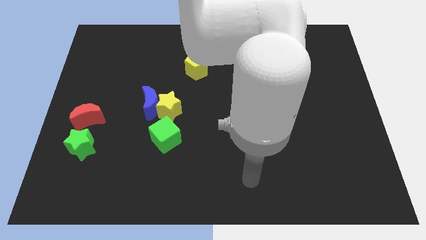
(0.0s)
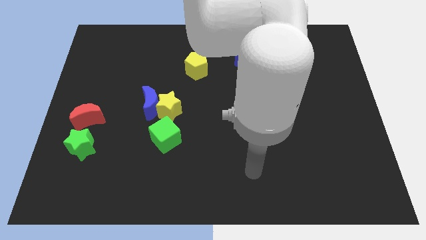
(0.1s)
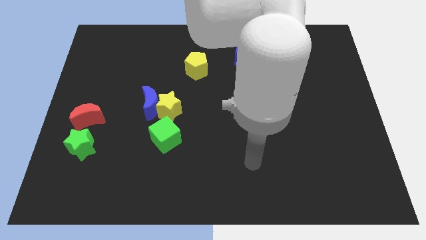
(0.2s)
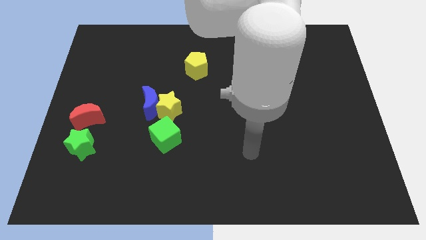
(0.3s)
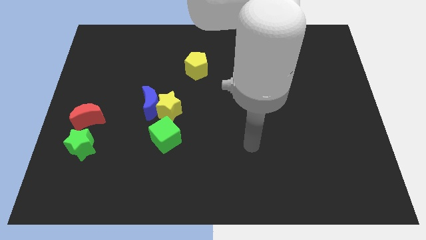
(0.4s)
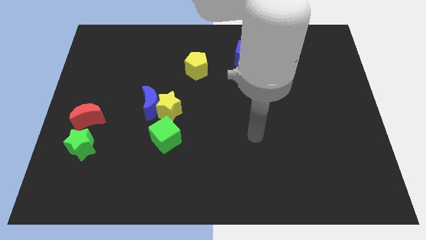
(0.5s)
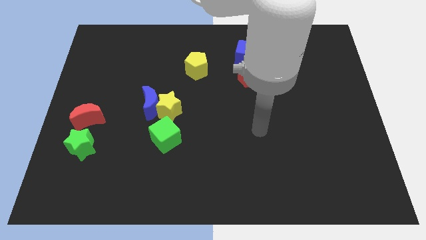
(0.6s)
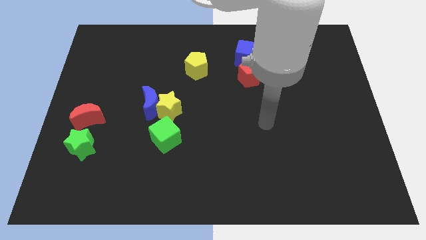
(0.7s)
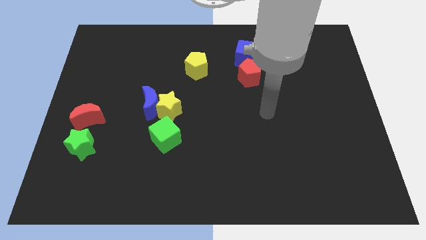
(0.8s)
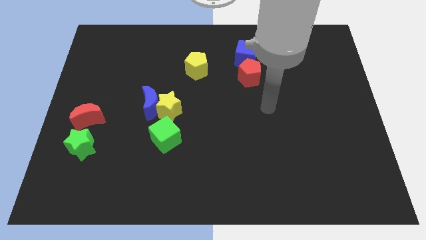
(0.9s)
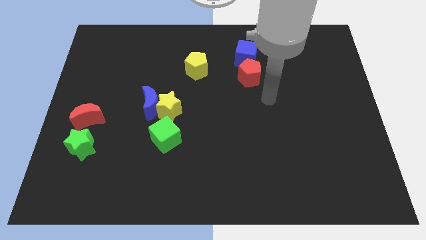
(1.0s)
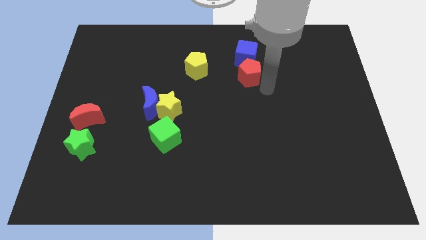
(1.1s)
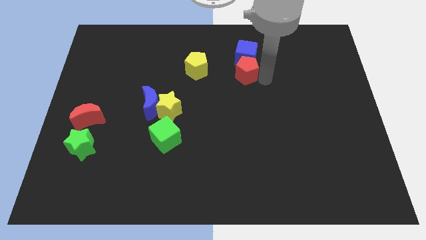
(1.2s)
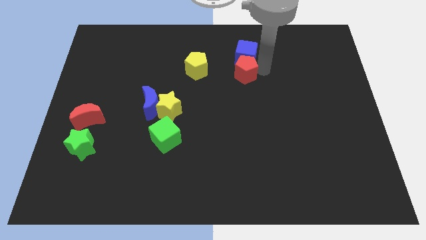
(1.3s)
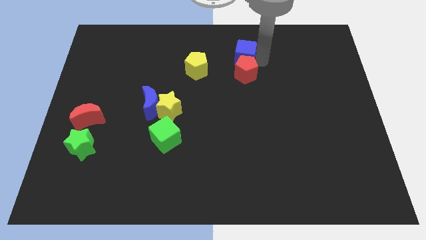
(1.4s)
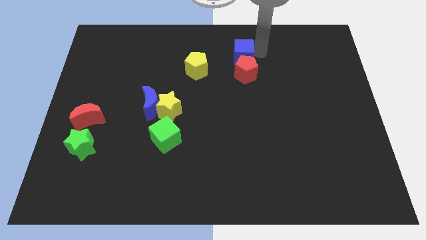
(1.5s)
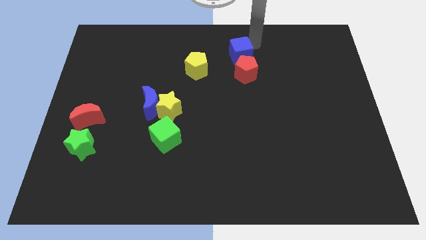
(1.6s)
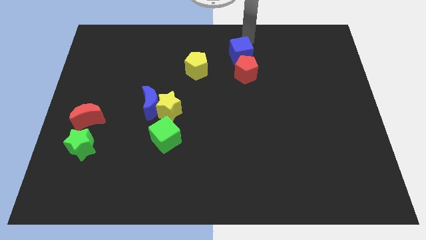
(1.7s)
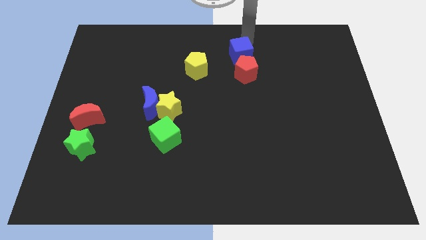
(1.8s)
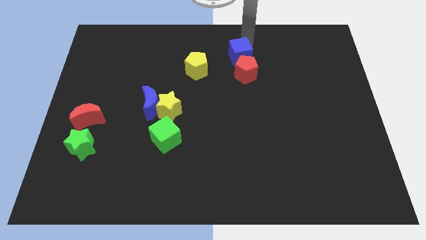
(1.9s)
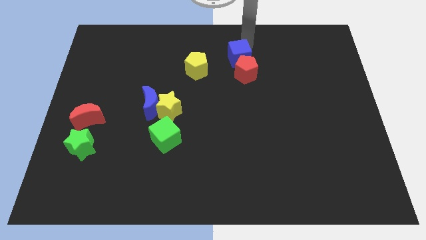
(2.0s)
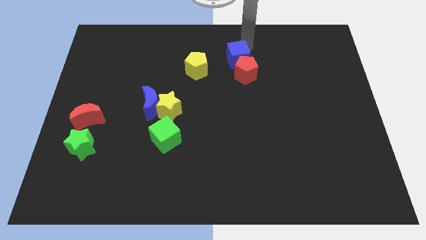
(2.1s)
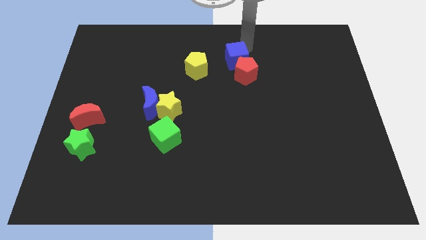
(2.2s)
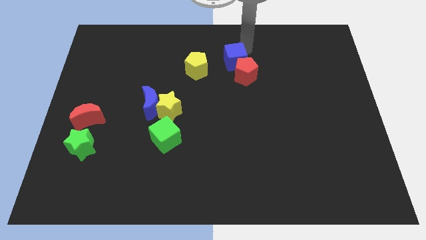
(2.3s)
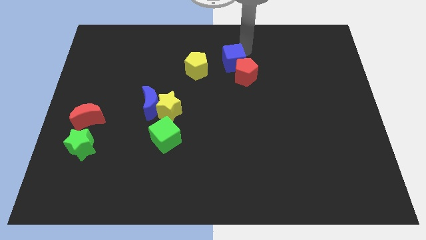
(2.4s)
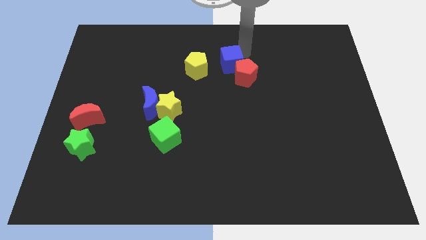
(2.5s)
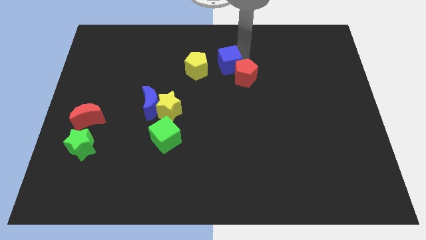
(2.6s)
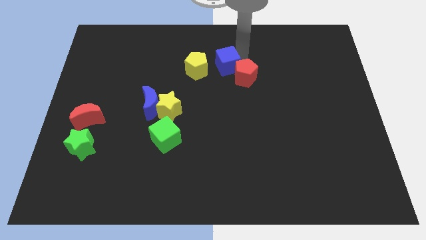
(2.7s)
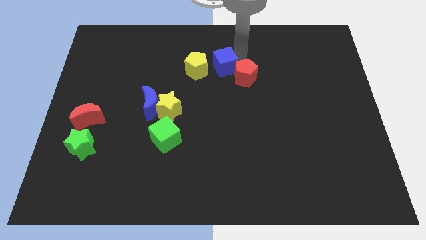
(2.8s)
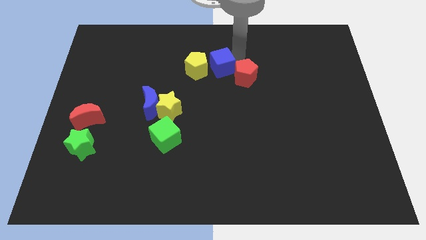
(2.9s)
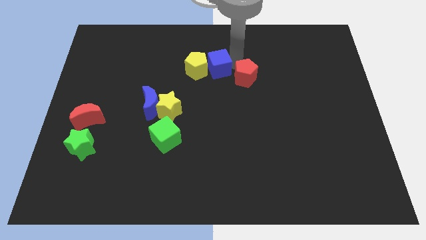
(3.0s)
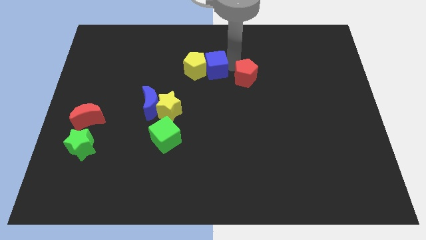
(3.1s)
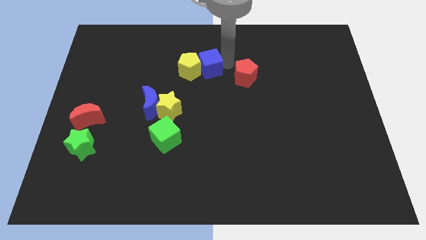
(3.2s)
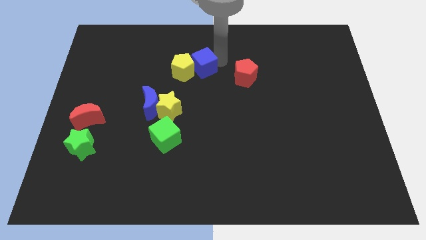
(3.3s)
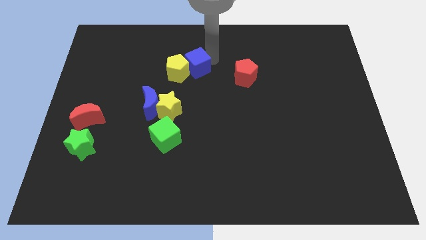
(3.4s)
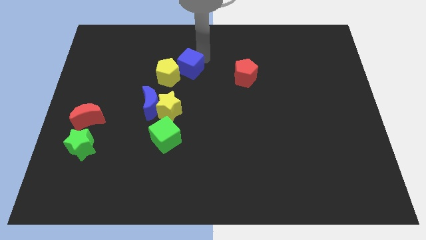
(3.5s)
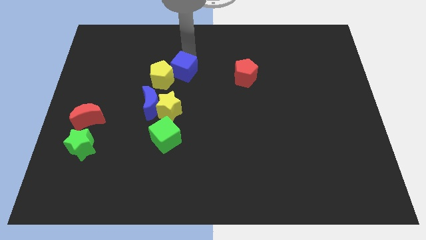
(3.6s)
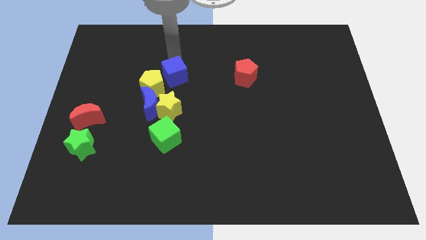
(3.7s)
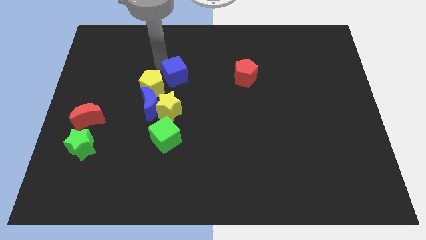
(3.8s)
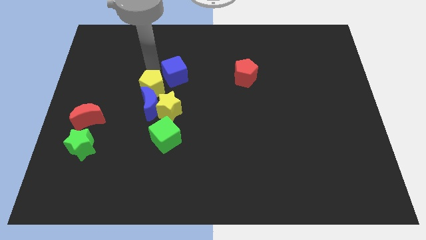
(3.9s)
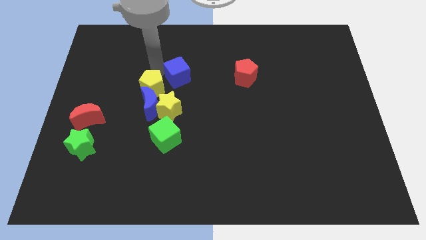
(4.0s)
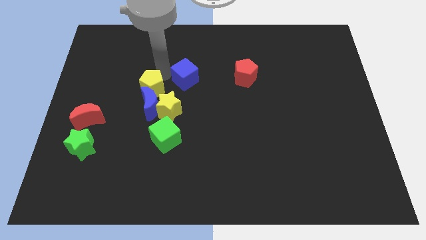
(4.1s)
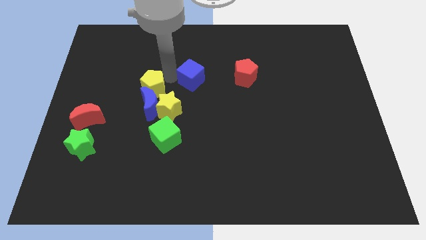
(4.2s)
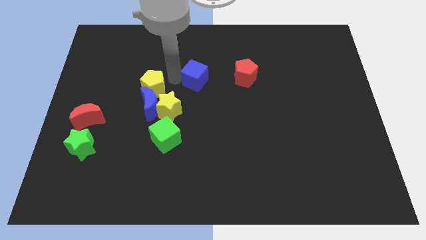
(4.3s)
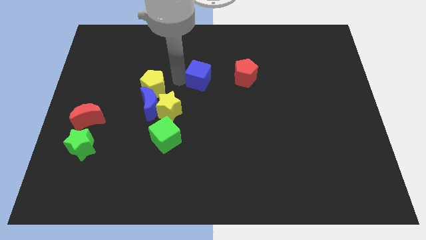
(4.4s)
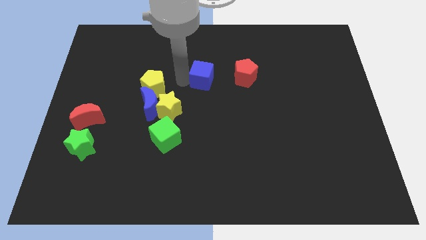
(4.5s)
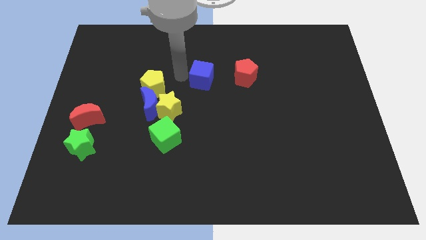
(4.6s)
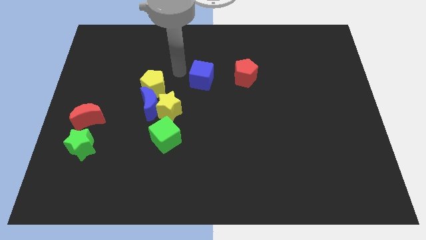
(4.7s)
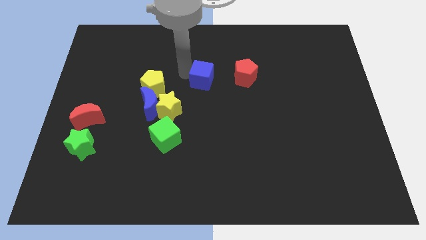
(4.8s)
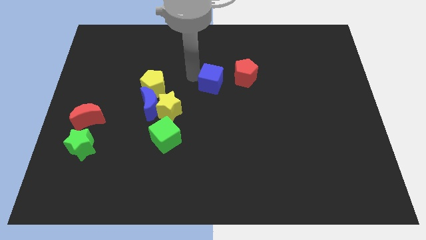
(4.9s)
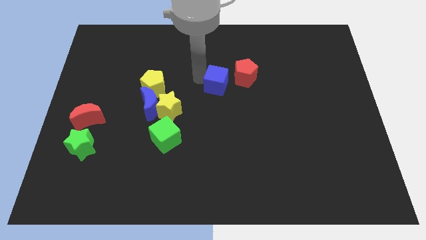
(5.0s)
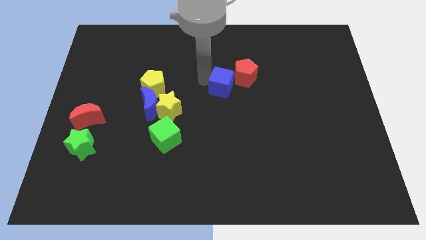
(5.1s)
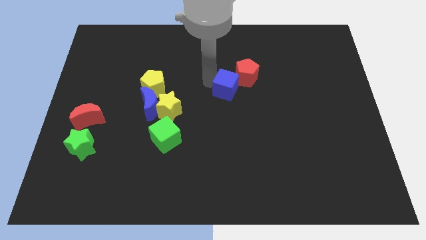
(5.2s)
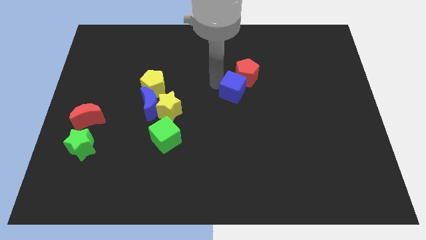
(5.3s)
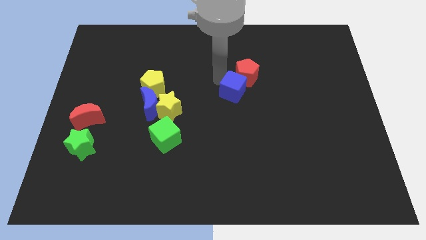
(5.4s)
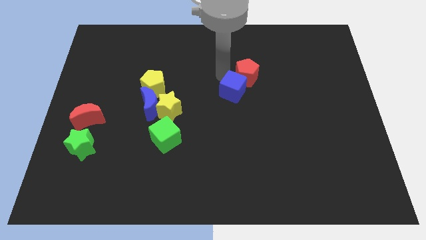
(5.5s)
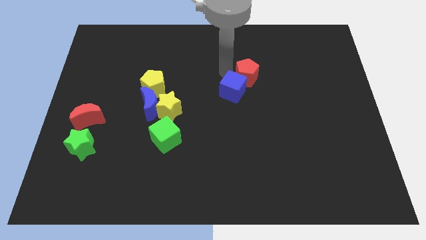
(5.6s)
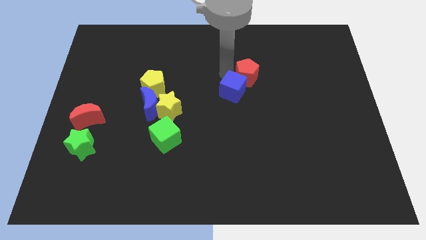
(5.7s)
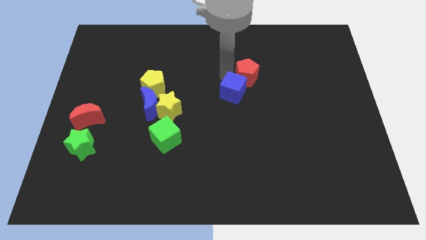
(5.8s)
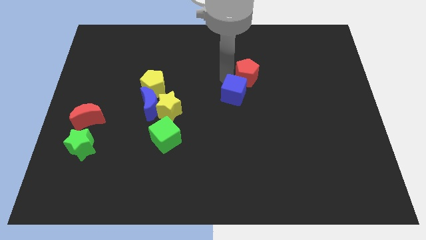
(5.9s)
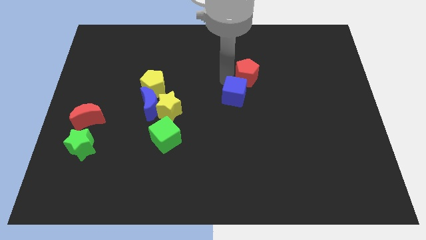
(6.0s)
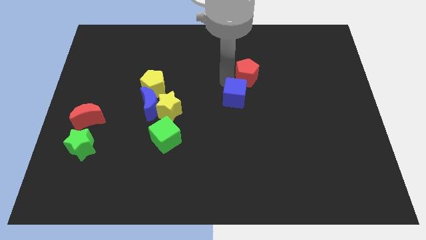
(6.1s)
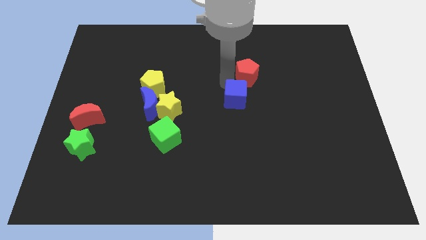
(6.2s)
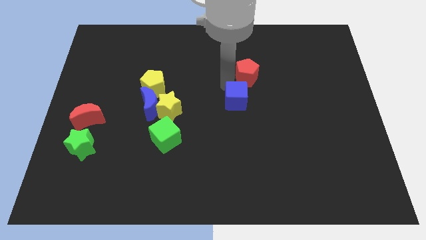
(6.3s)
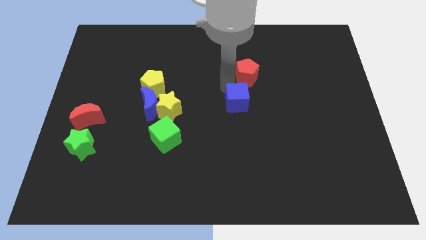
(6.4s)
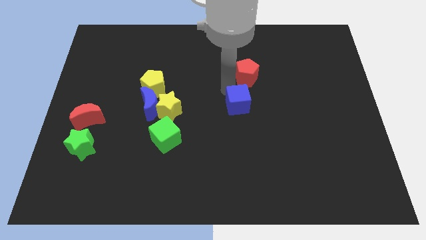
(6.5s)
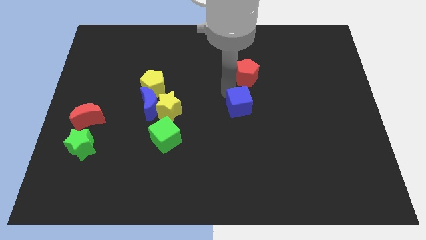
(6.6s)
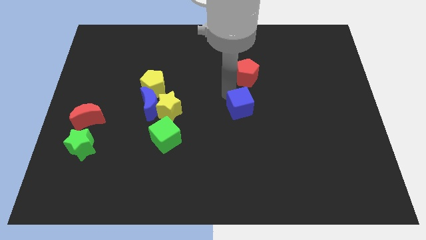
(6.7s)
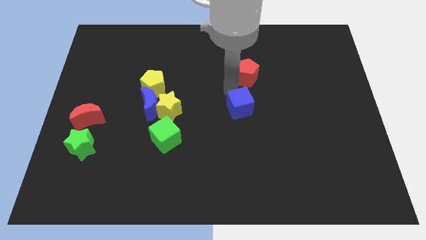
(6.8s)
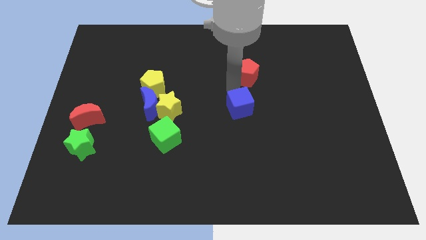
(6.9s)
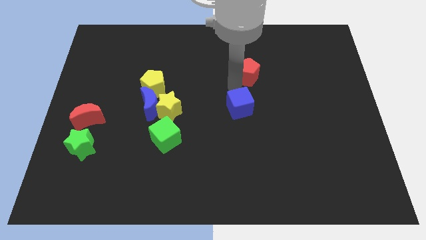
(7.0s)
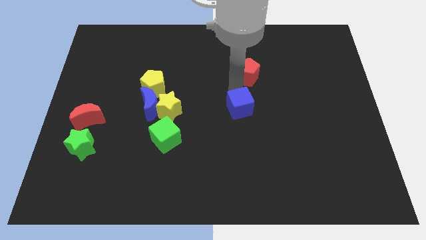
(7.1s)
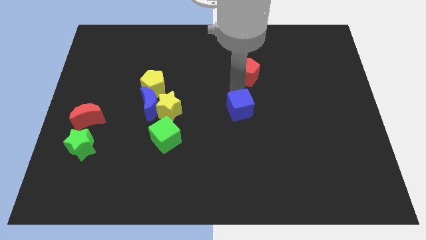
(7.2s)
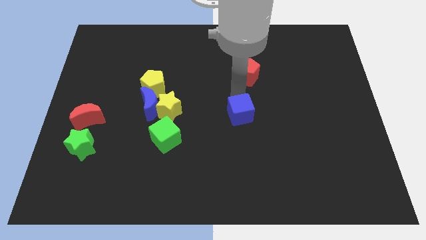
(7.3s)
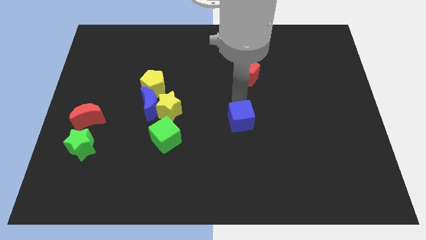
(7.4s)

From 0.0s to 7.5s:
move the blue cube down
